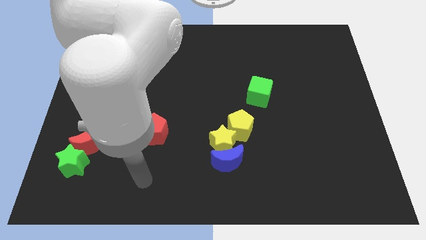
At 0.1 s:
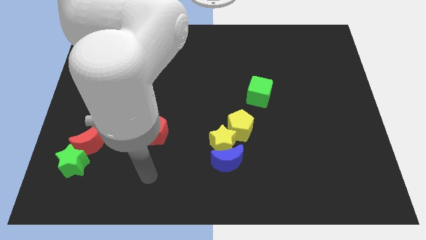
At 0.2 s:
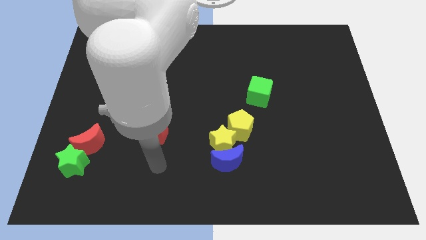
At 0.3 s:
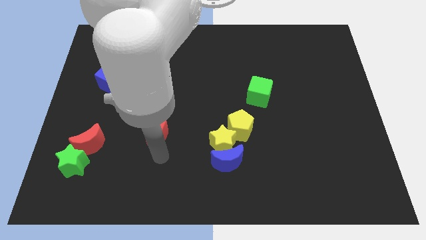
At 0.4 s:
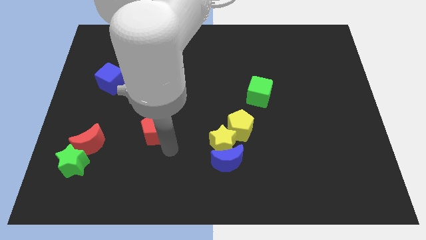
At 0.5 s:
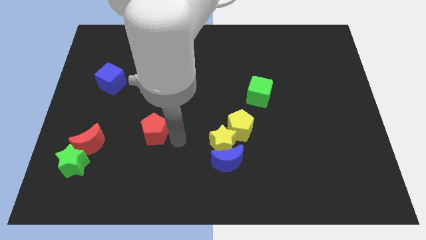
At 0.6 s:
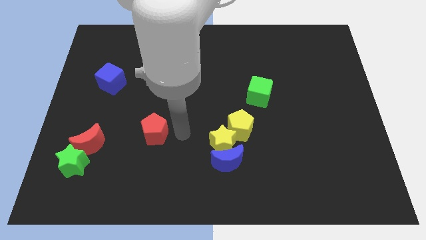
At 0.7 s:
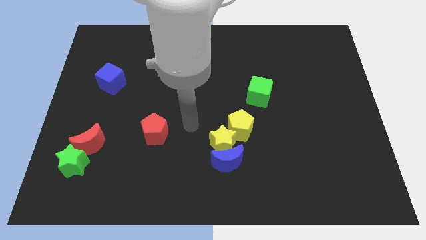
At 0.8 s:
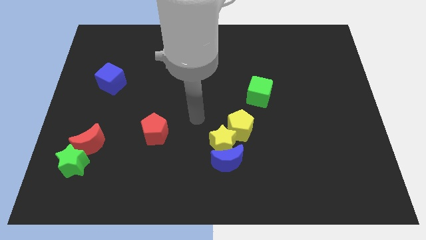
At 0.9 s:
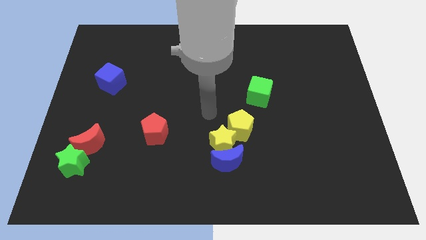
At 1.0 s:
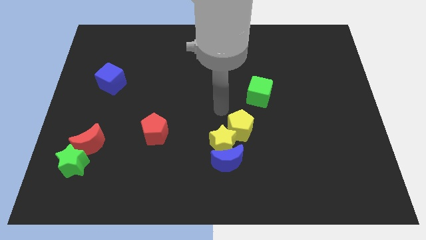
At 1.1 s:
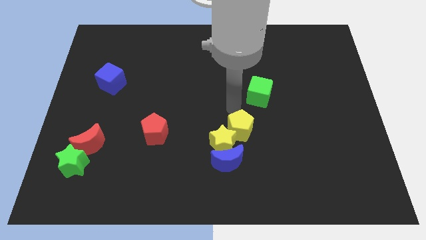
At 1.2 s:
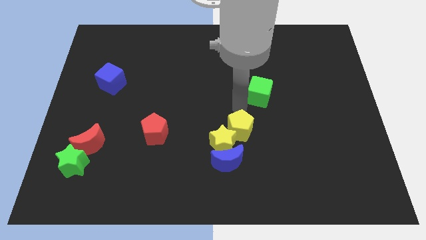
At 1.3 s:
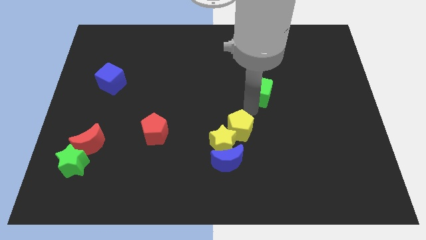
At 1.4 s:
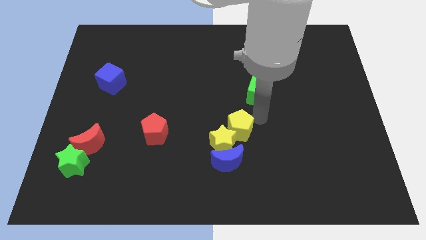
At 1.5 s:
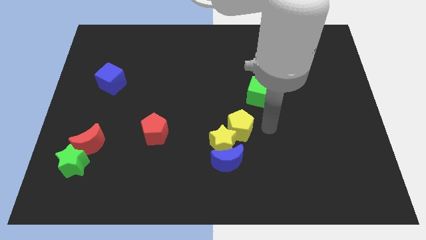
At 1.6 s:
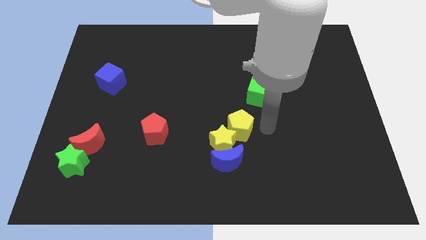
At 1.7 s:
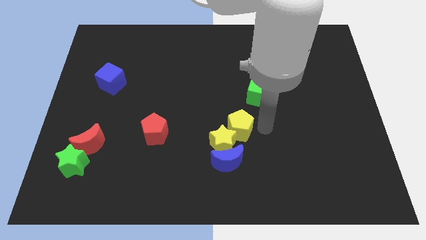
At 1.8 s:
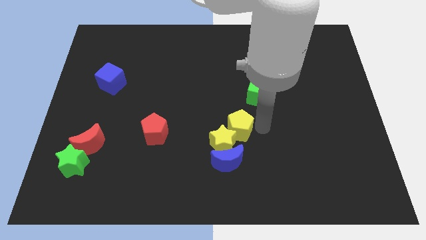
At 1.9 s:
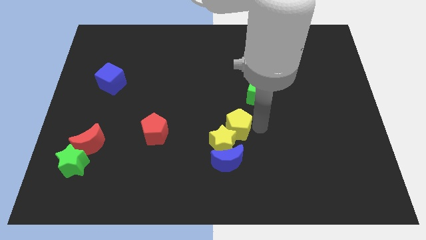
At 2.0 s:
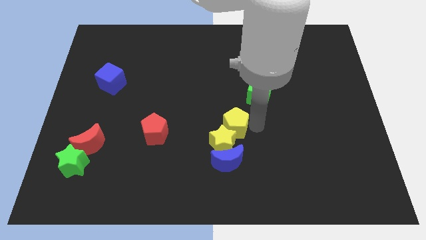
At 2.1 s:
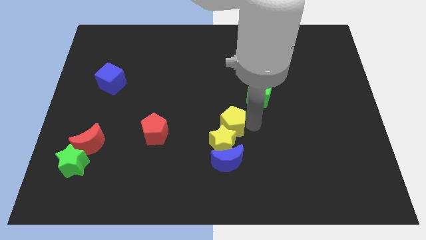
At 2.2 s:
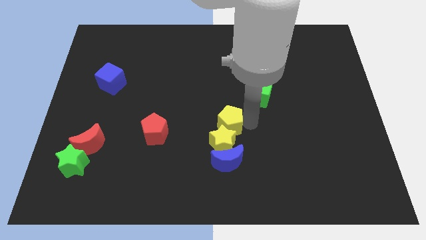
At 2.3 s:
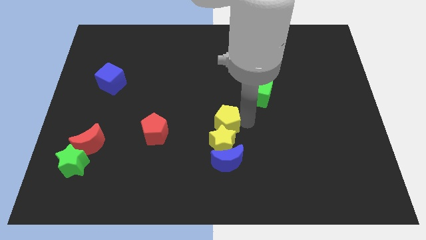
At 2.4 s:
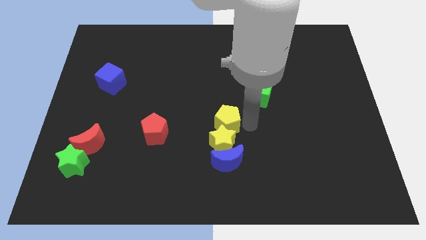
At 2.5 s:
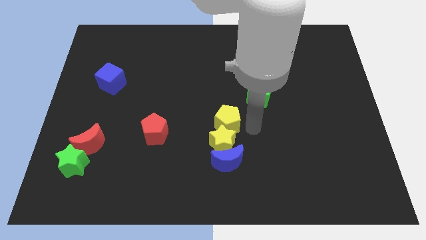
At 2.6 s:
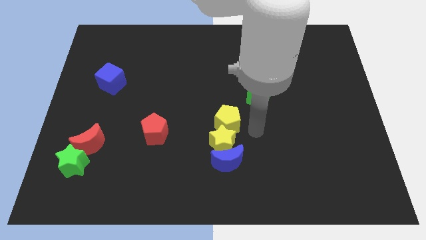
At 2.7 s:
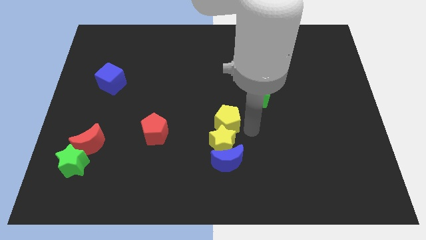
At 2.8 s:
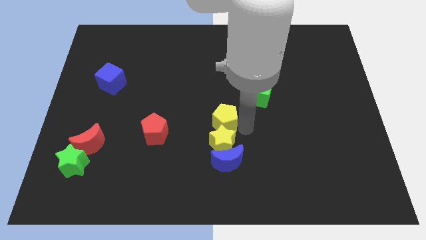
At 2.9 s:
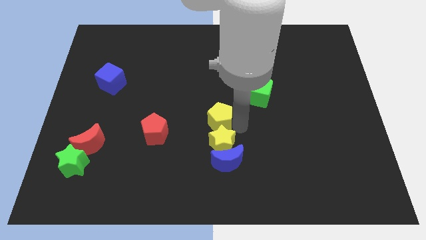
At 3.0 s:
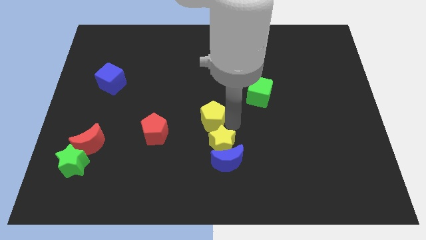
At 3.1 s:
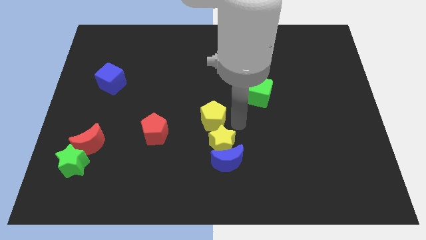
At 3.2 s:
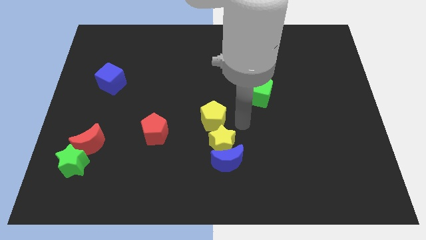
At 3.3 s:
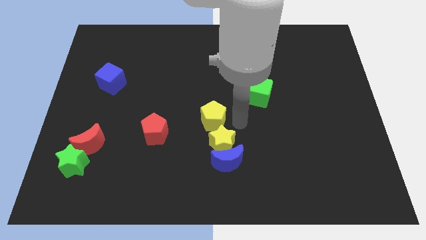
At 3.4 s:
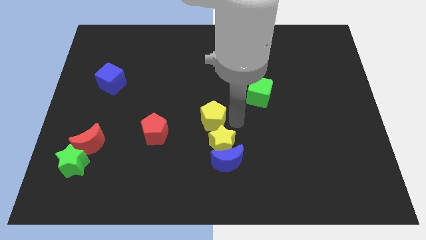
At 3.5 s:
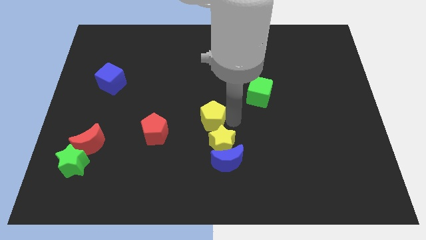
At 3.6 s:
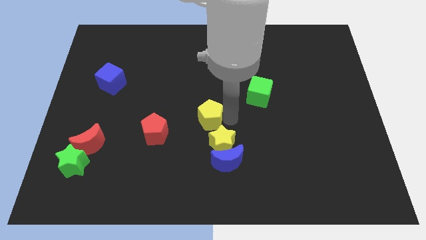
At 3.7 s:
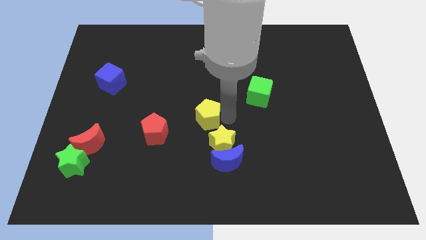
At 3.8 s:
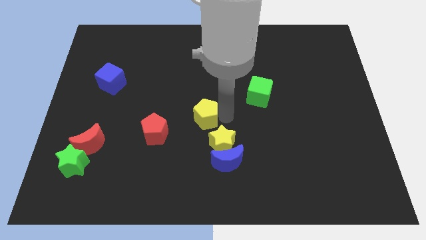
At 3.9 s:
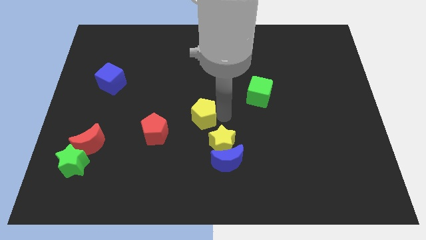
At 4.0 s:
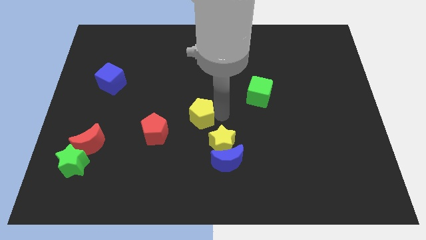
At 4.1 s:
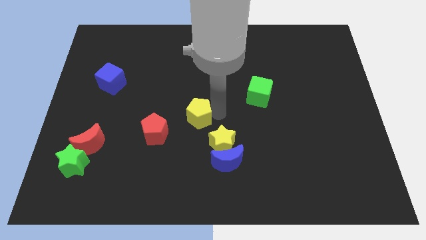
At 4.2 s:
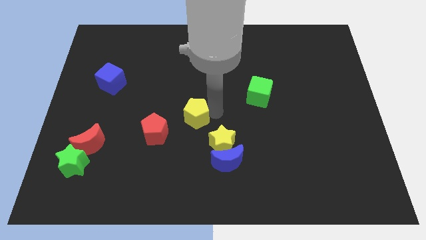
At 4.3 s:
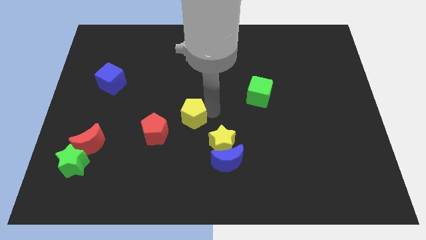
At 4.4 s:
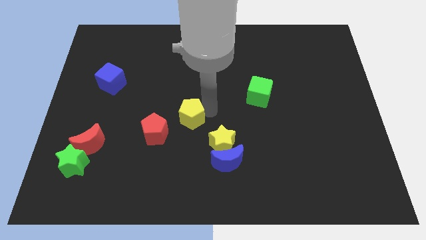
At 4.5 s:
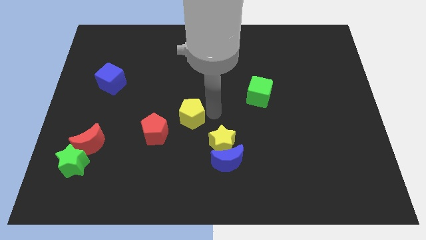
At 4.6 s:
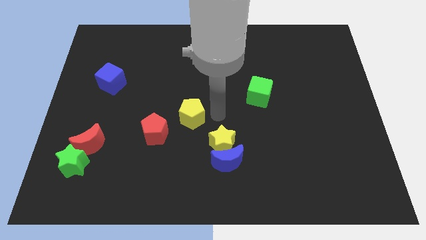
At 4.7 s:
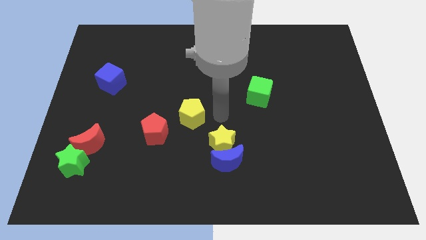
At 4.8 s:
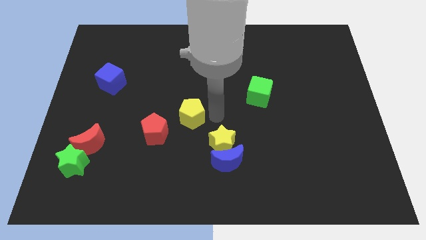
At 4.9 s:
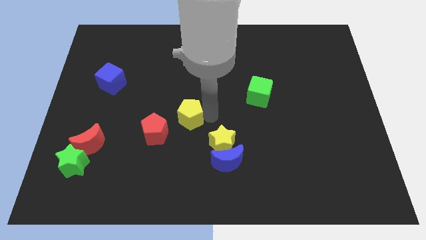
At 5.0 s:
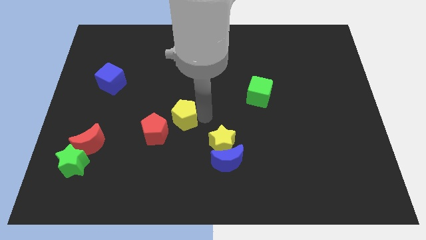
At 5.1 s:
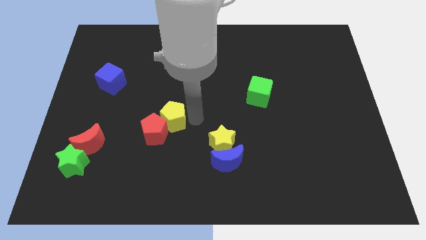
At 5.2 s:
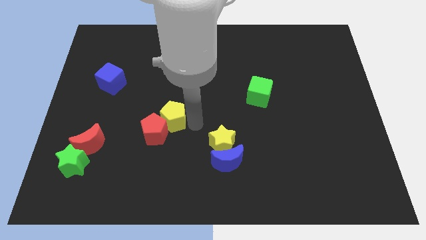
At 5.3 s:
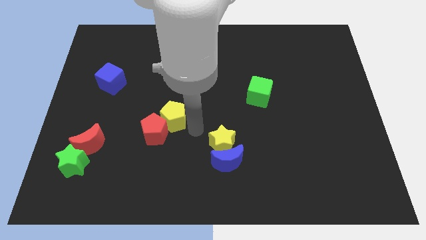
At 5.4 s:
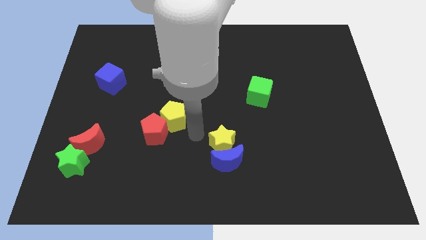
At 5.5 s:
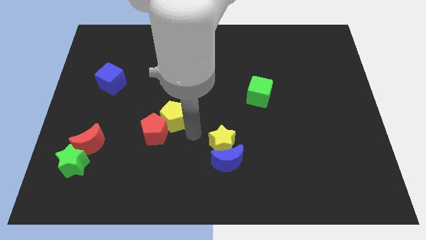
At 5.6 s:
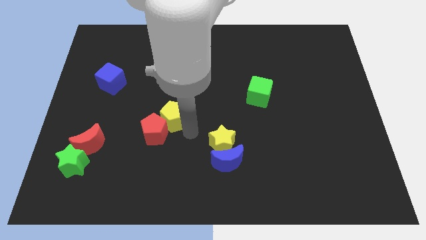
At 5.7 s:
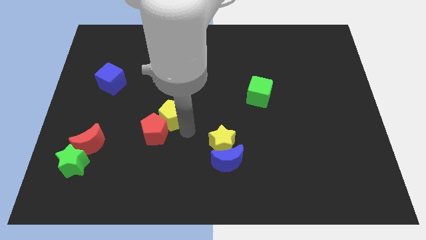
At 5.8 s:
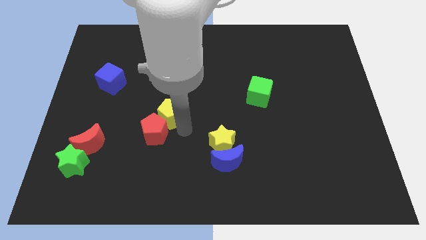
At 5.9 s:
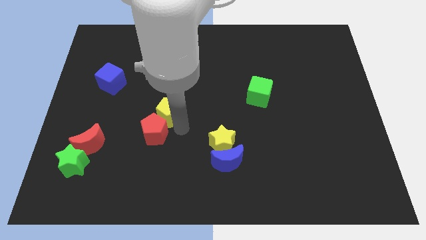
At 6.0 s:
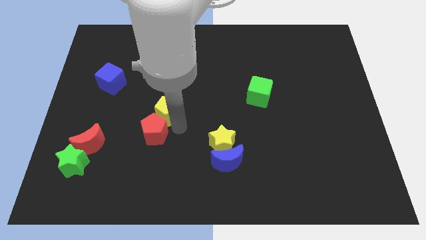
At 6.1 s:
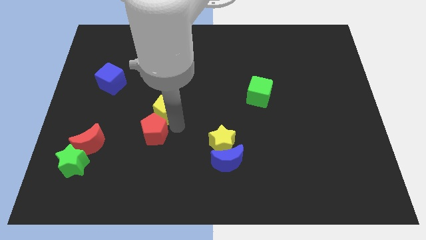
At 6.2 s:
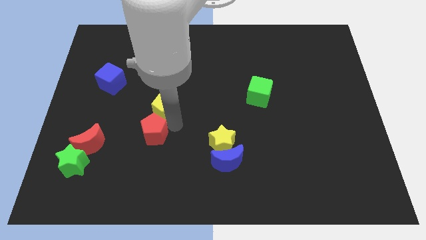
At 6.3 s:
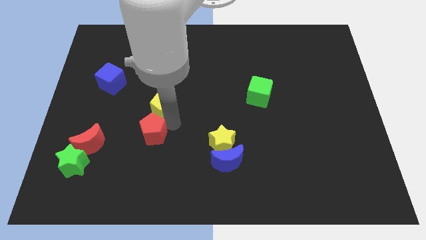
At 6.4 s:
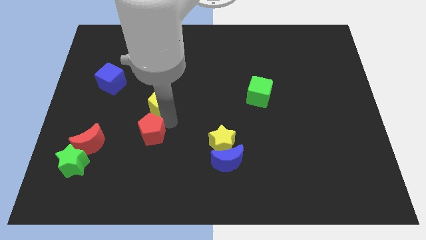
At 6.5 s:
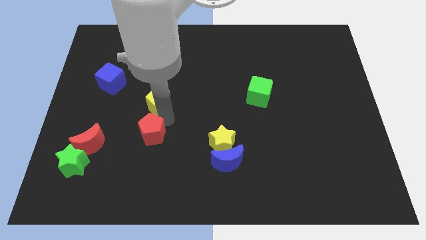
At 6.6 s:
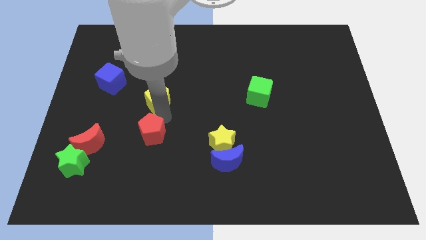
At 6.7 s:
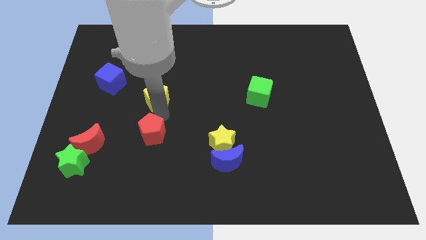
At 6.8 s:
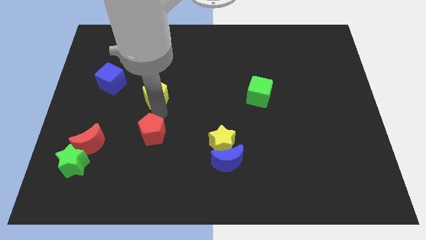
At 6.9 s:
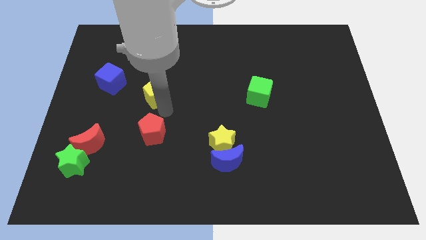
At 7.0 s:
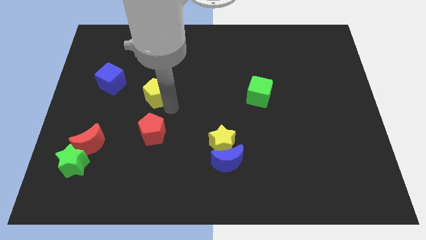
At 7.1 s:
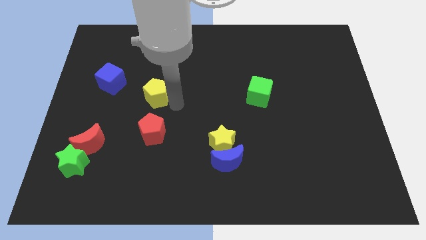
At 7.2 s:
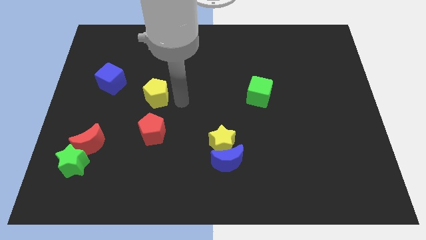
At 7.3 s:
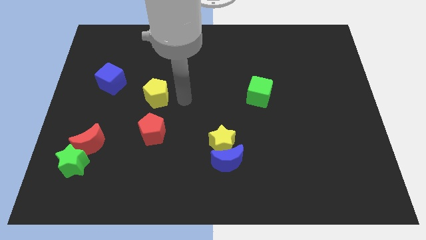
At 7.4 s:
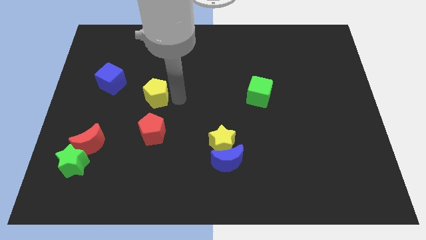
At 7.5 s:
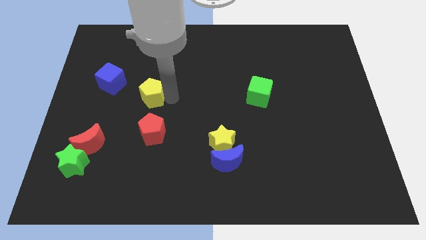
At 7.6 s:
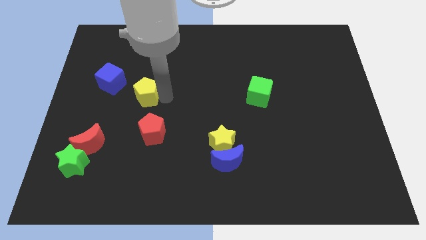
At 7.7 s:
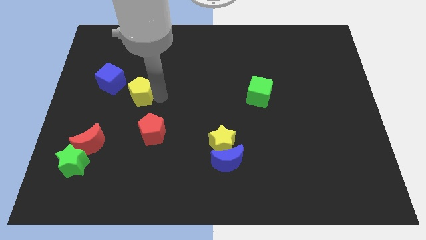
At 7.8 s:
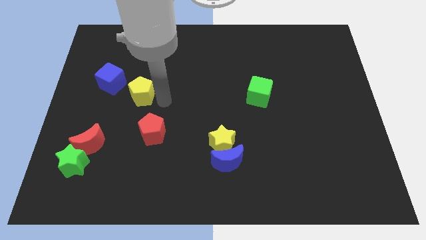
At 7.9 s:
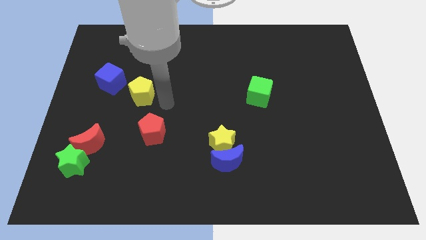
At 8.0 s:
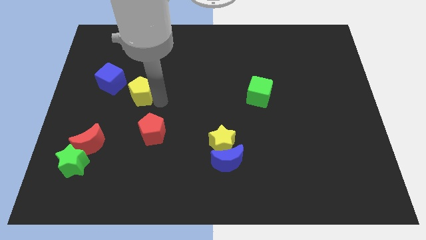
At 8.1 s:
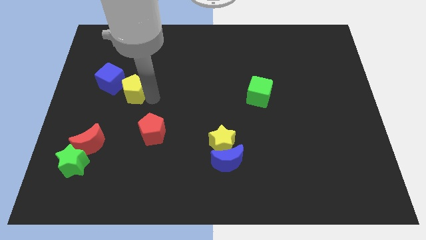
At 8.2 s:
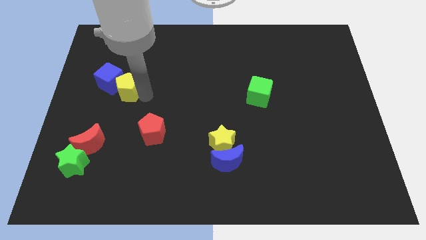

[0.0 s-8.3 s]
push the yellow pentagon close to the blue cube
